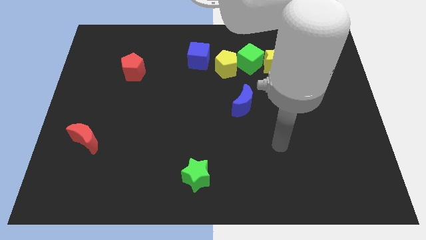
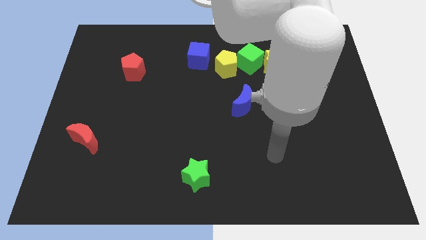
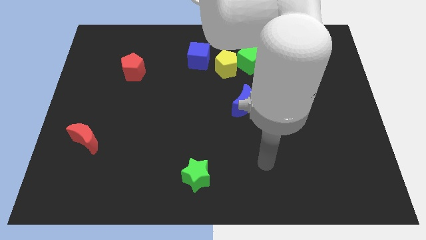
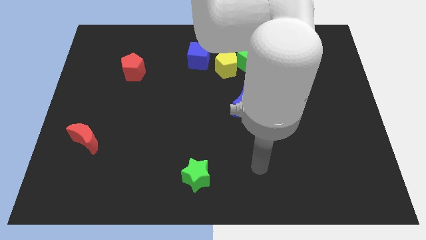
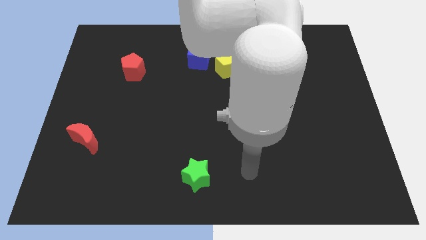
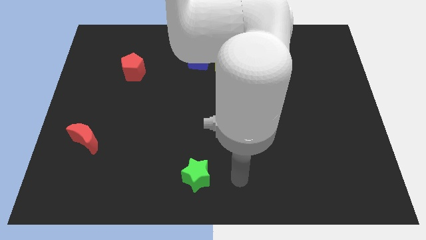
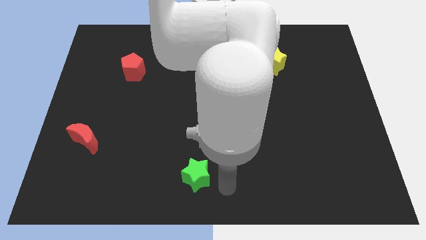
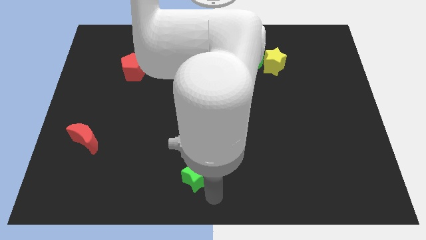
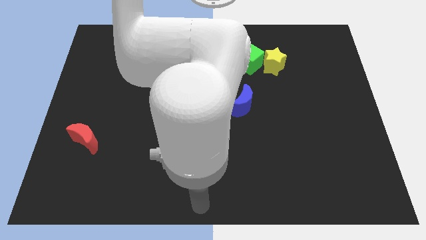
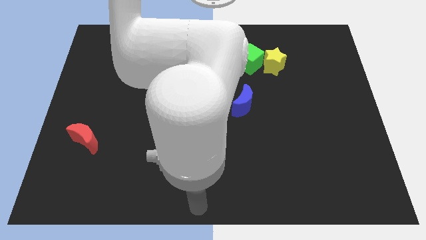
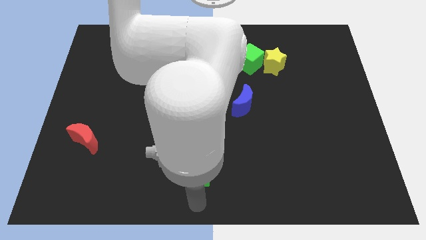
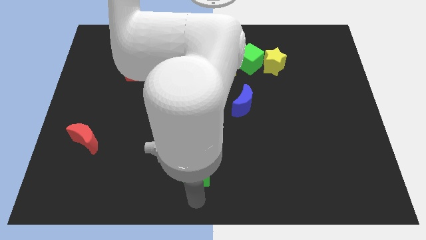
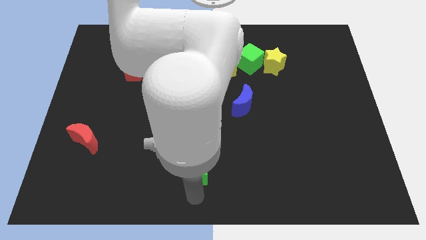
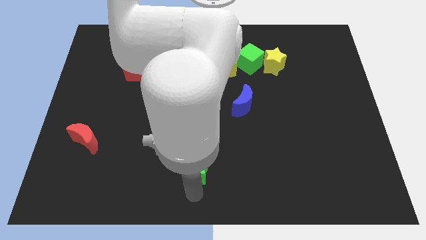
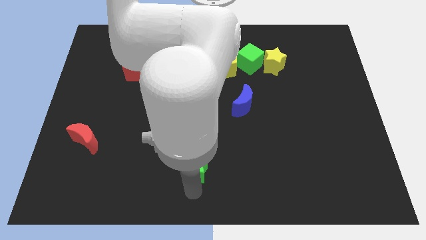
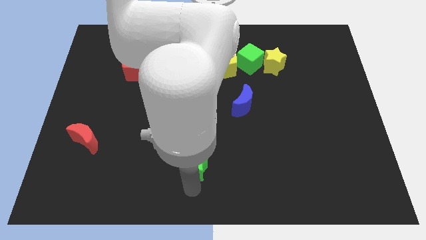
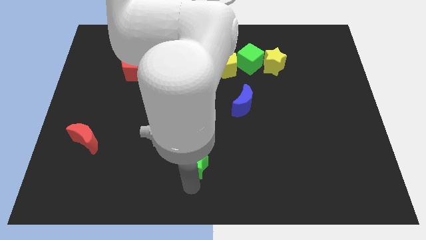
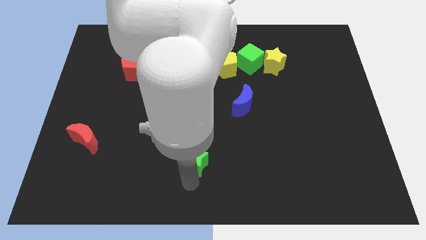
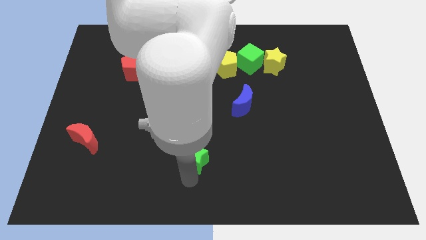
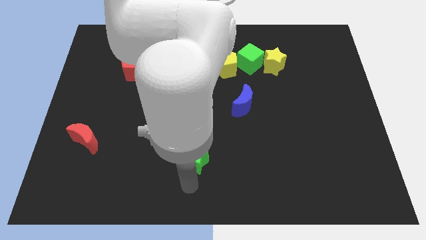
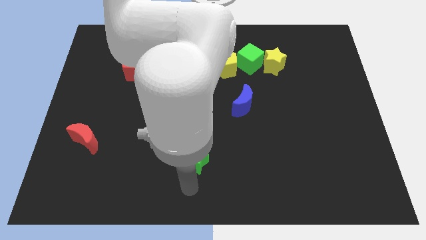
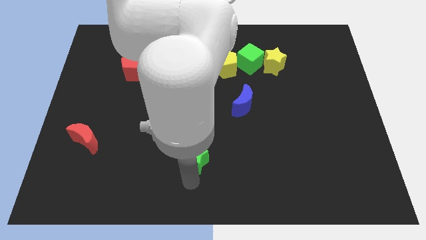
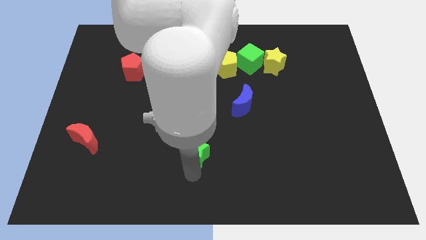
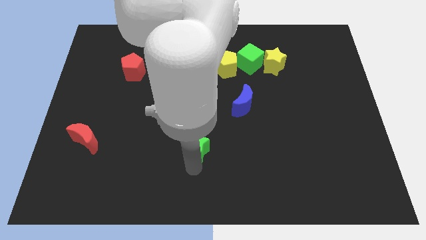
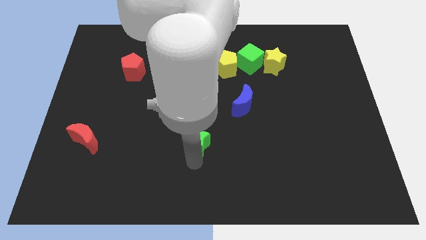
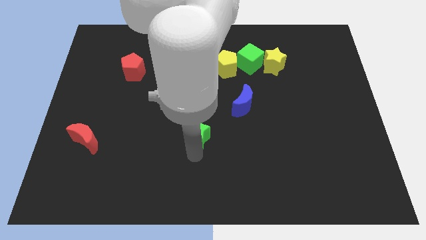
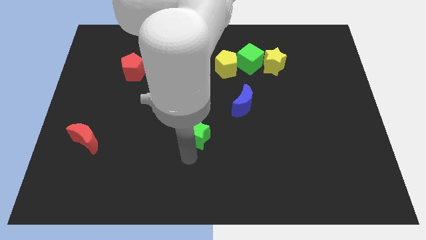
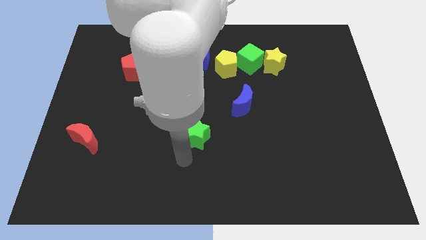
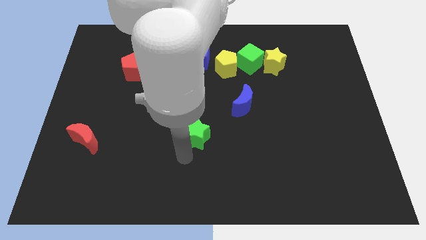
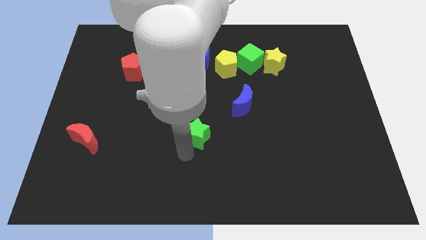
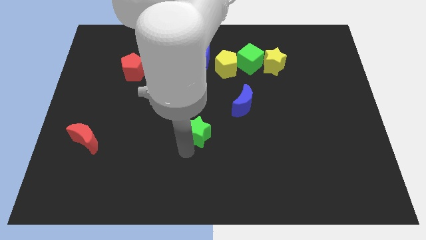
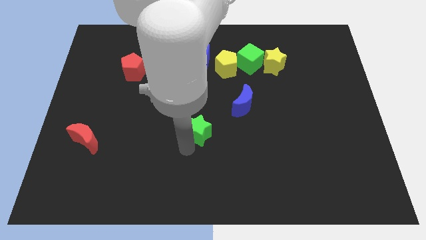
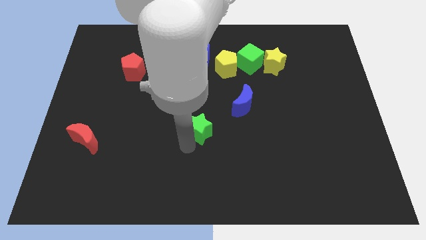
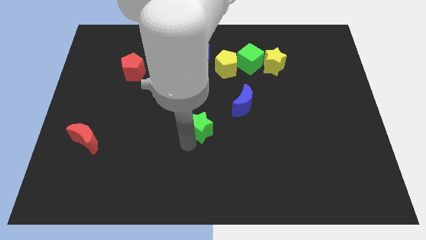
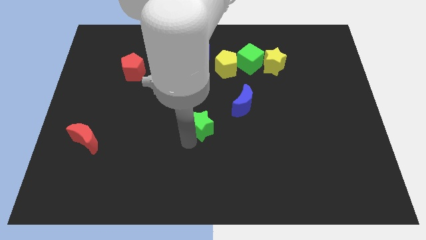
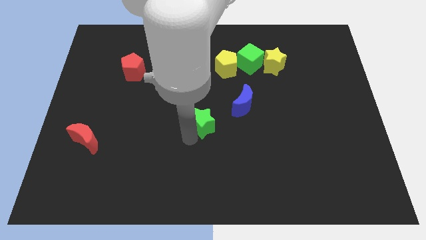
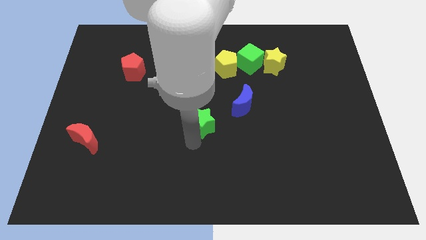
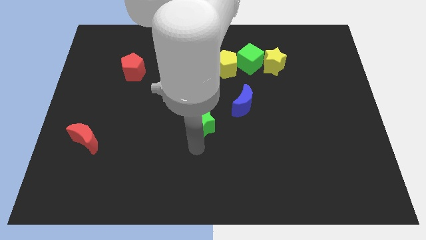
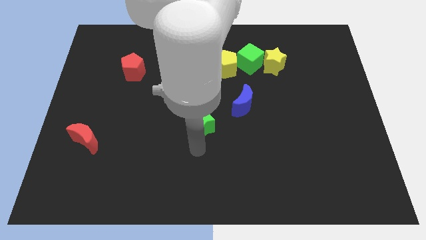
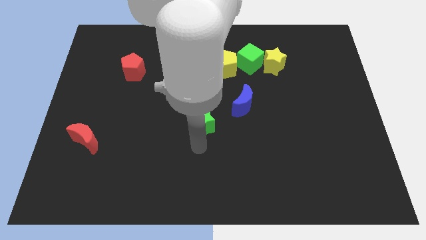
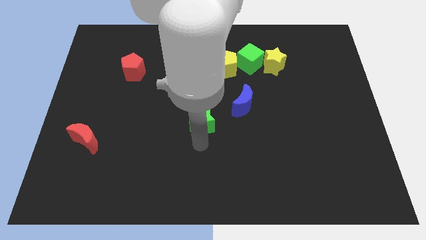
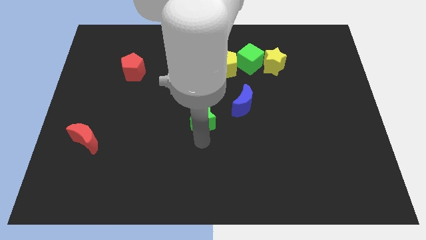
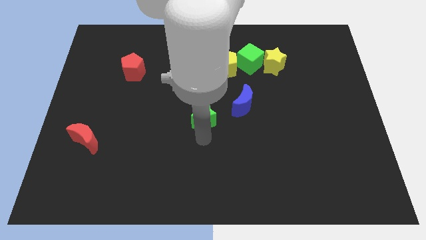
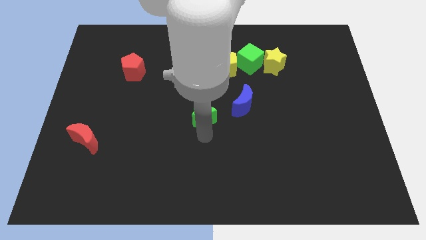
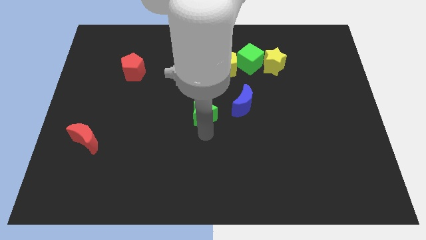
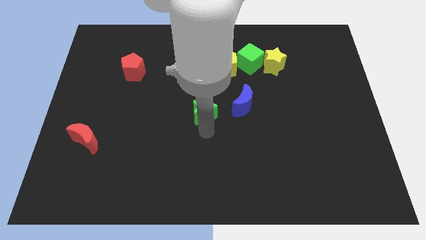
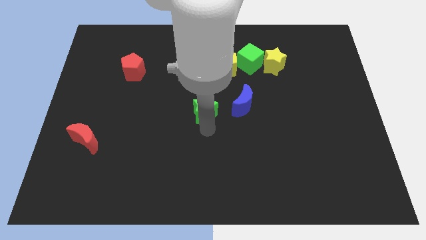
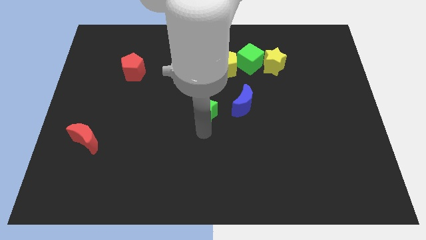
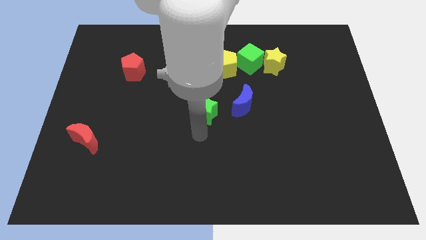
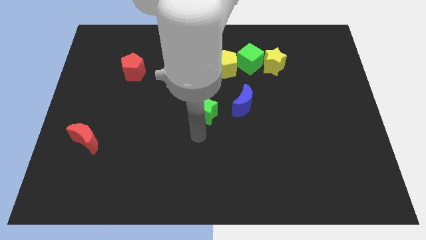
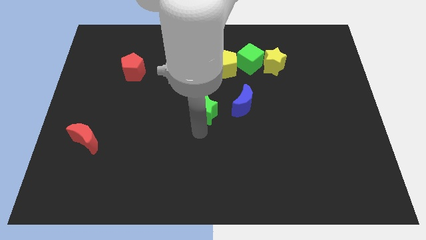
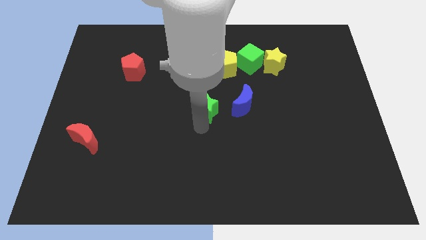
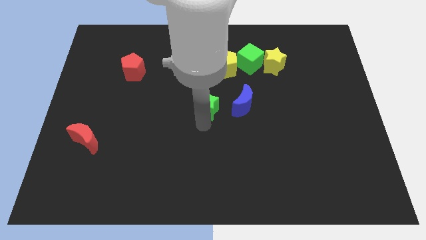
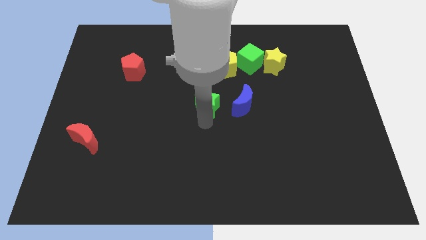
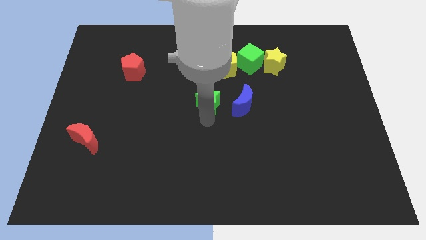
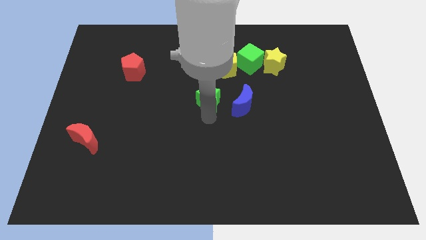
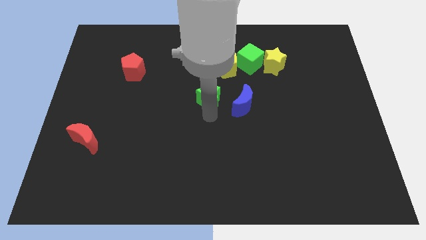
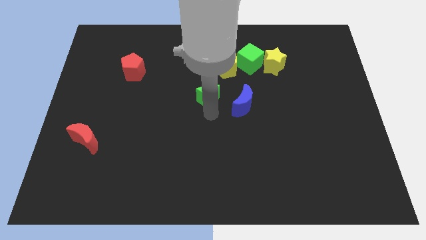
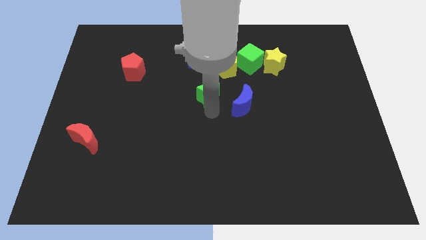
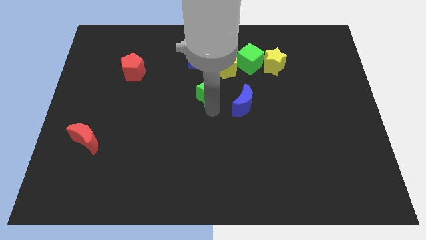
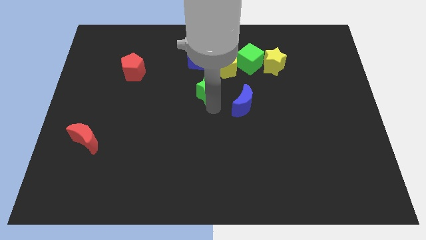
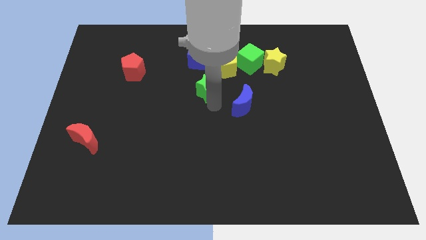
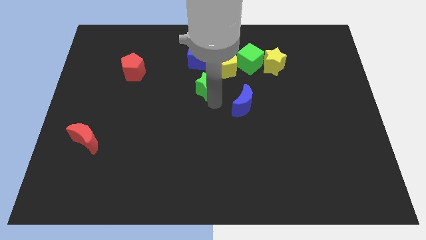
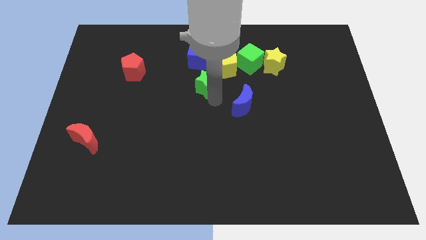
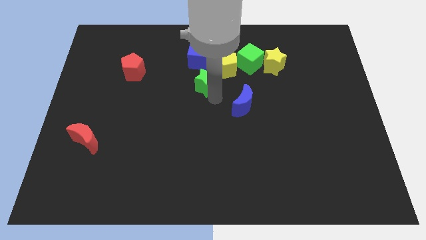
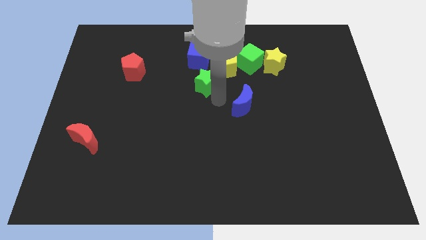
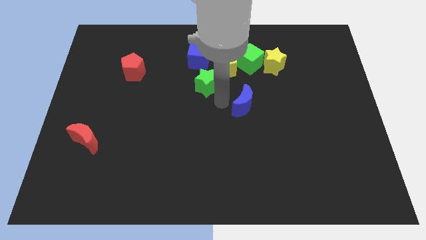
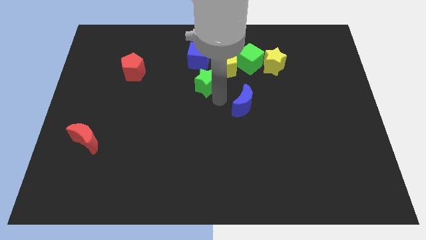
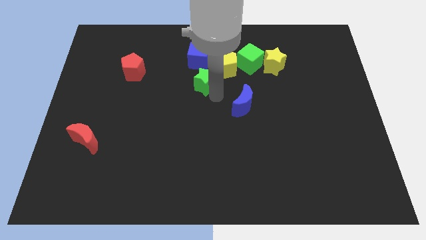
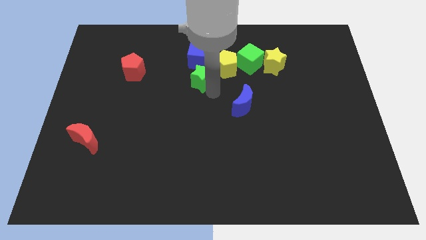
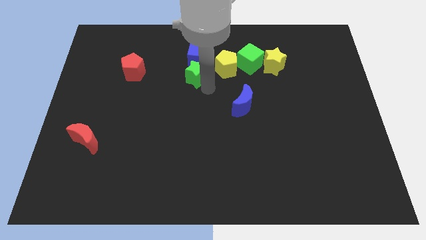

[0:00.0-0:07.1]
move the green star to the blue cube

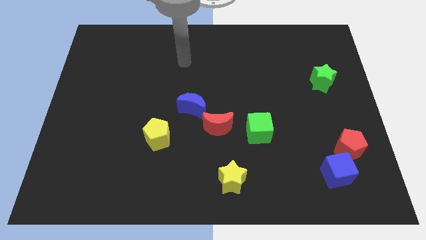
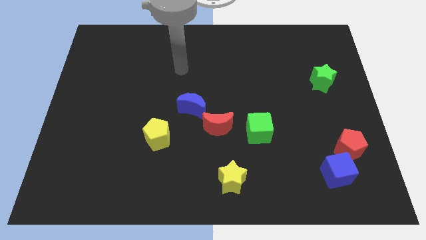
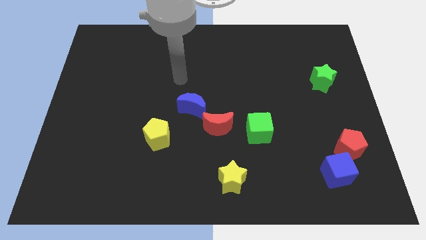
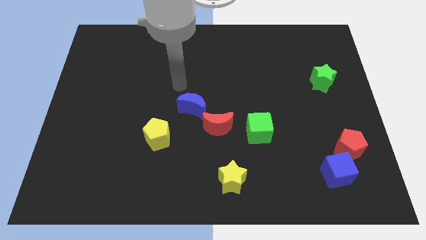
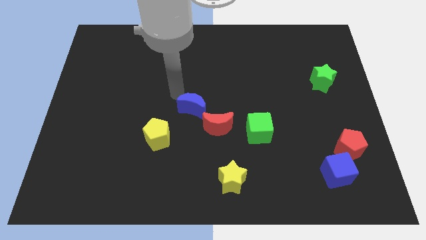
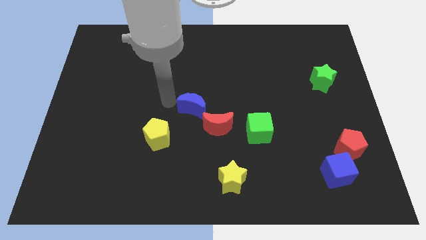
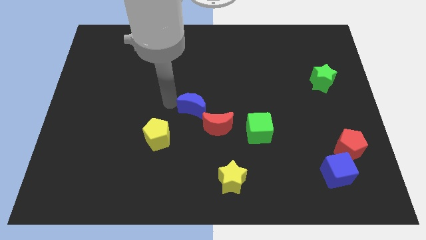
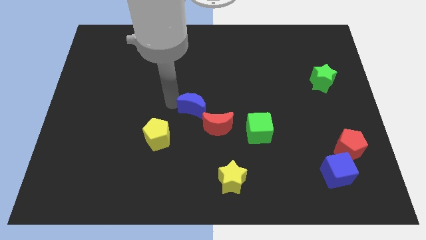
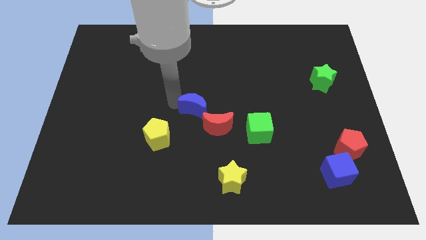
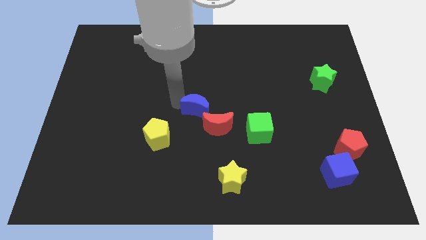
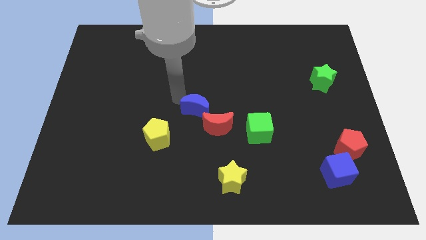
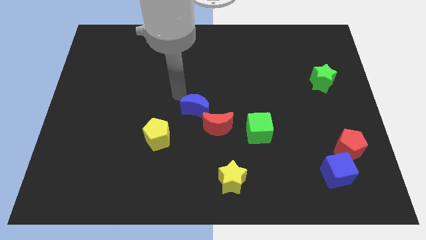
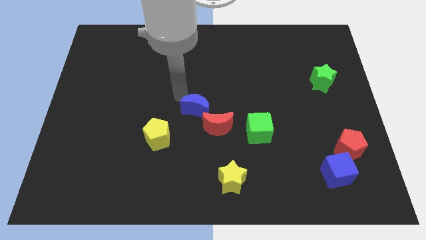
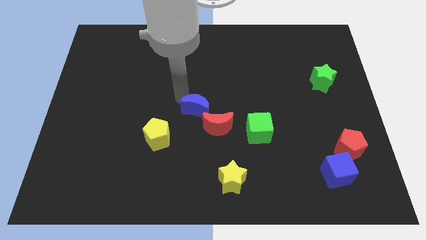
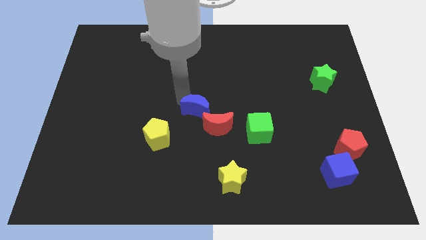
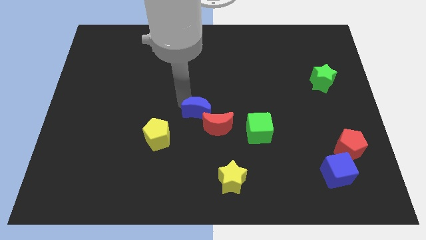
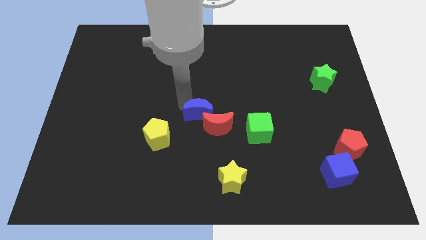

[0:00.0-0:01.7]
push the blue moon next to the red moon
